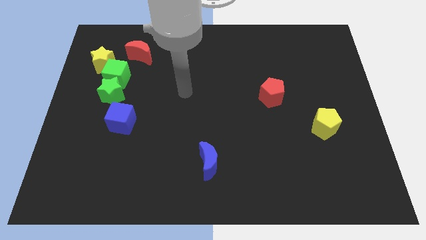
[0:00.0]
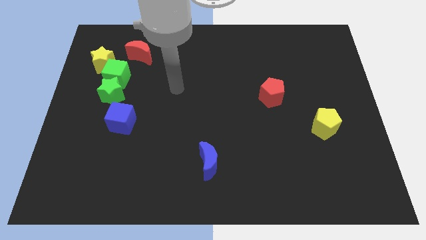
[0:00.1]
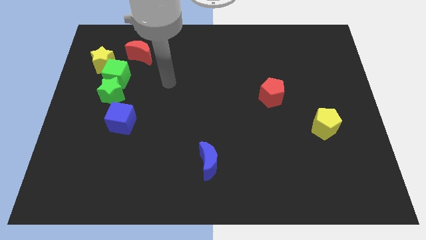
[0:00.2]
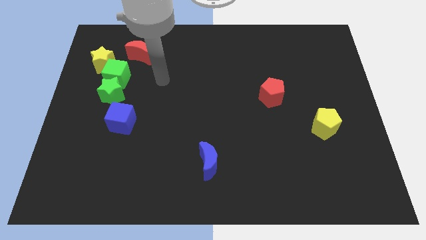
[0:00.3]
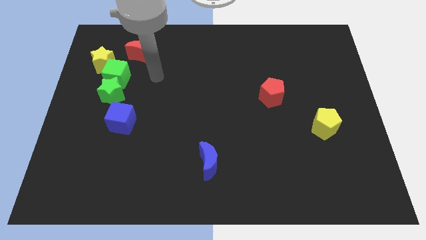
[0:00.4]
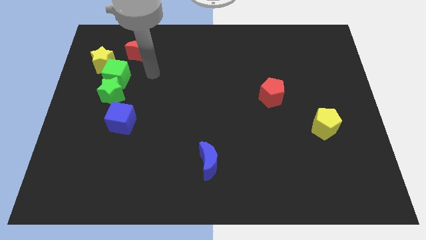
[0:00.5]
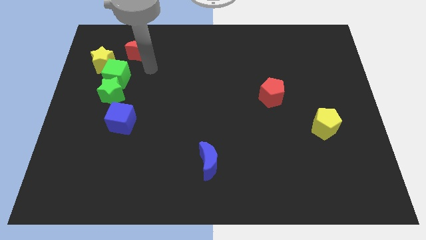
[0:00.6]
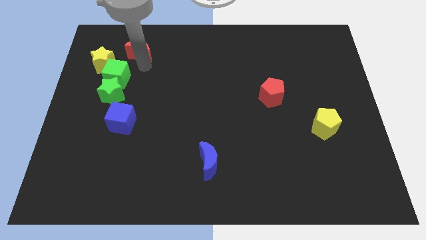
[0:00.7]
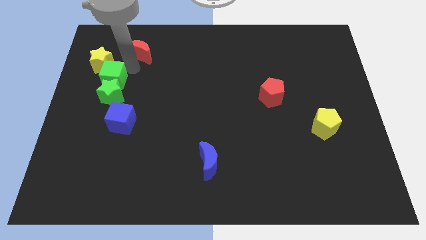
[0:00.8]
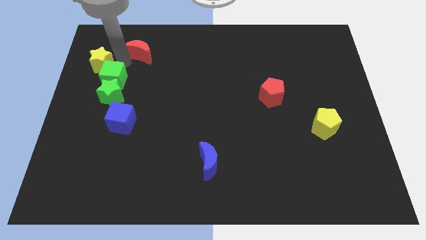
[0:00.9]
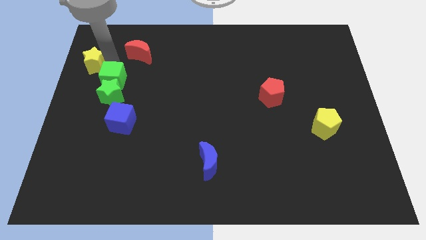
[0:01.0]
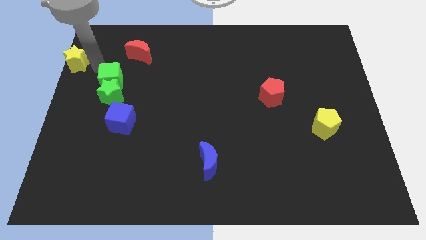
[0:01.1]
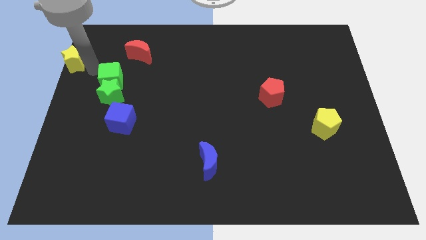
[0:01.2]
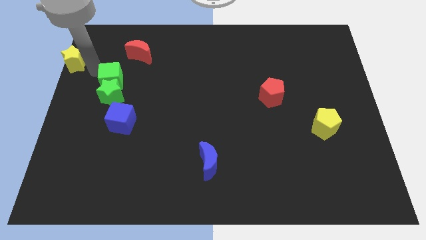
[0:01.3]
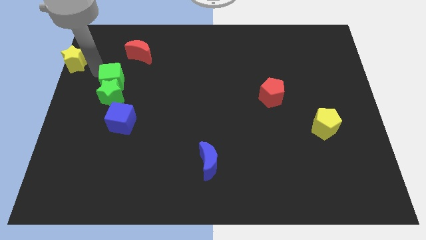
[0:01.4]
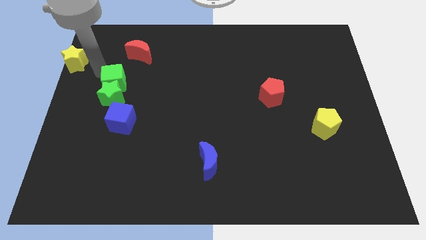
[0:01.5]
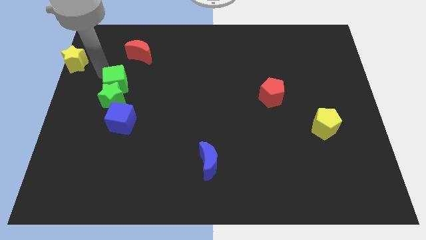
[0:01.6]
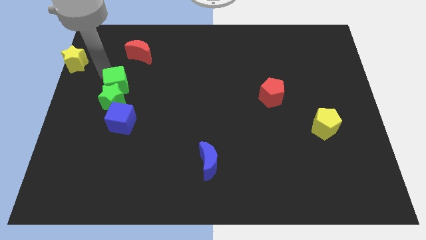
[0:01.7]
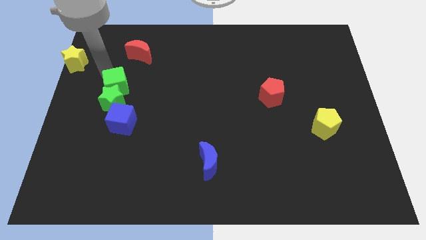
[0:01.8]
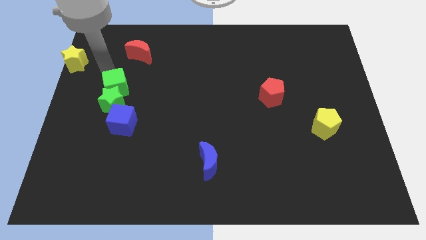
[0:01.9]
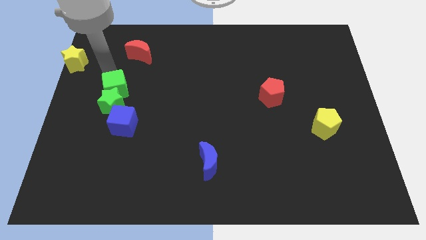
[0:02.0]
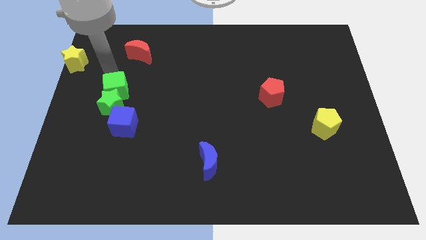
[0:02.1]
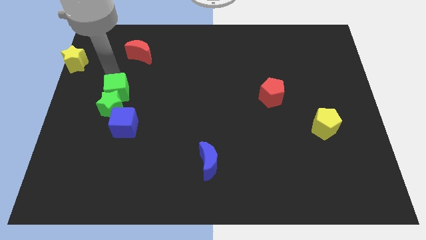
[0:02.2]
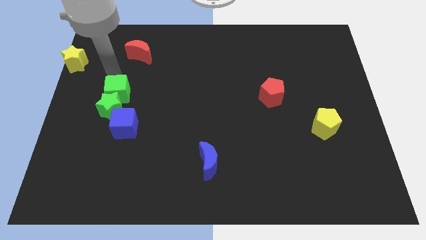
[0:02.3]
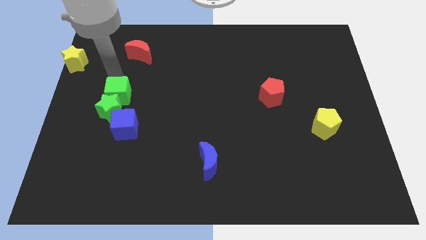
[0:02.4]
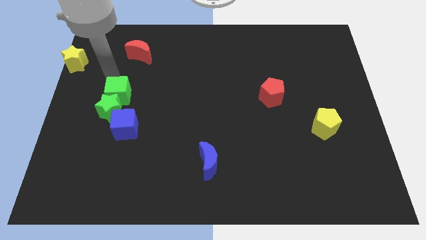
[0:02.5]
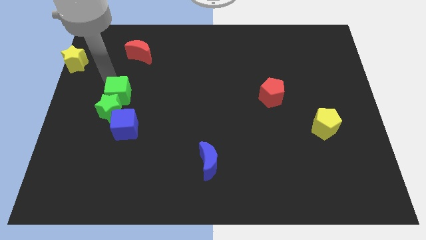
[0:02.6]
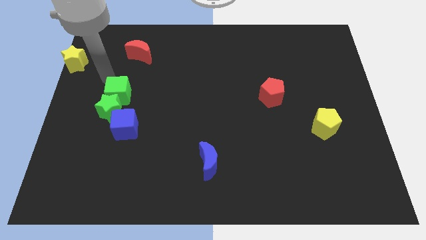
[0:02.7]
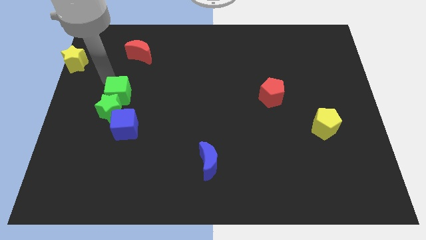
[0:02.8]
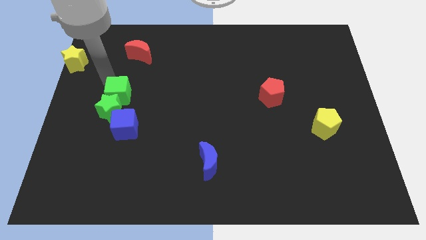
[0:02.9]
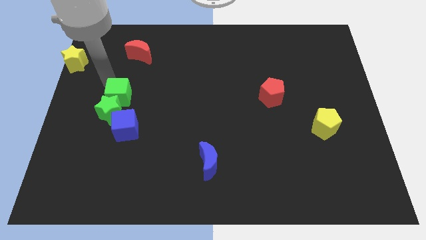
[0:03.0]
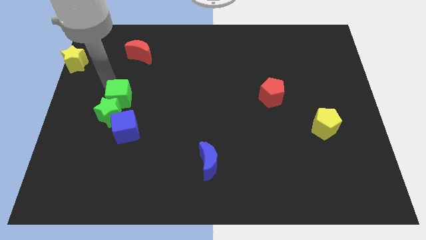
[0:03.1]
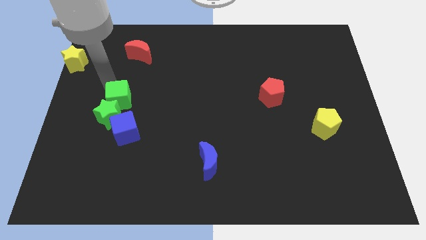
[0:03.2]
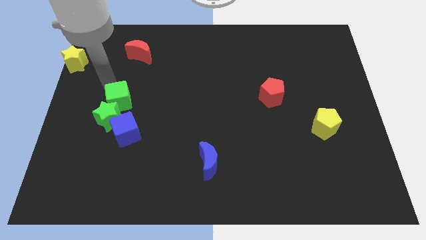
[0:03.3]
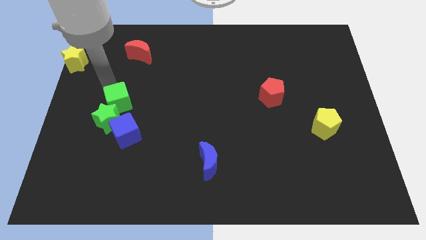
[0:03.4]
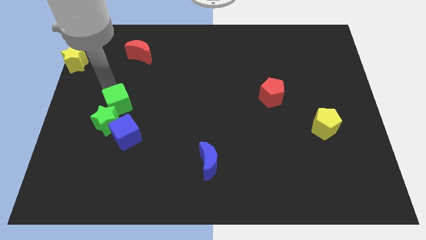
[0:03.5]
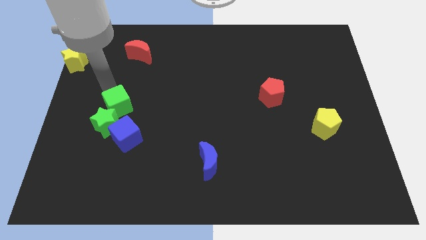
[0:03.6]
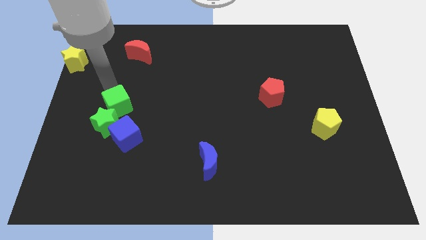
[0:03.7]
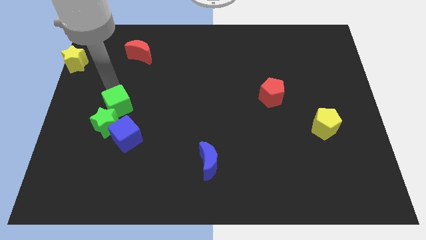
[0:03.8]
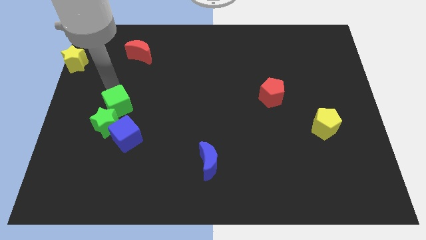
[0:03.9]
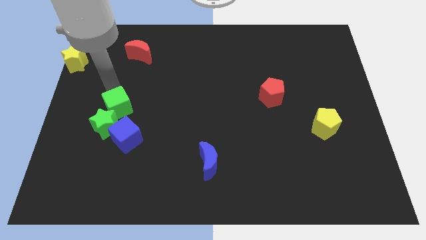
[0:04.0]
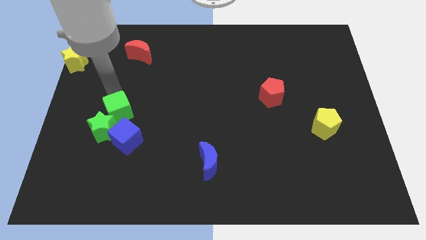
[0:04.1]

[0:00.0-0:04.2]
separate the green cube from the green star, yellow star, and red moon

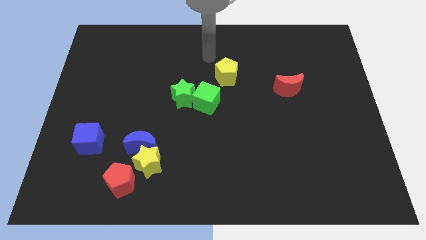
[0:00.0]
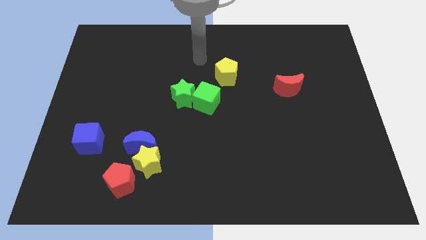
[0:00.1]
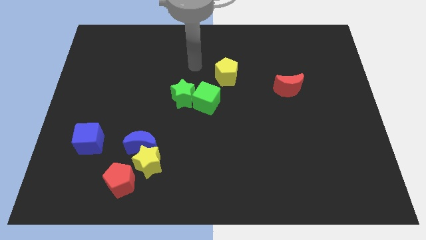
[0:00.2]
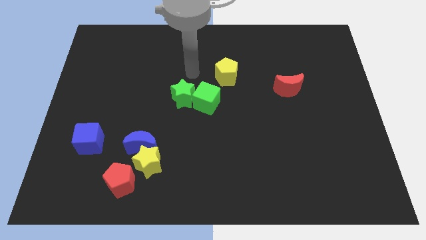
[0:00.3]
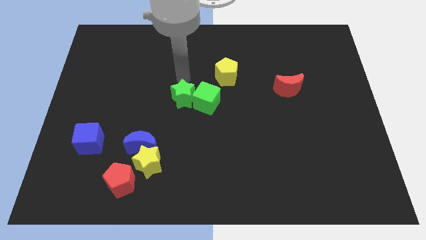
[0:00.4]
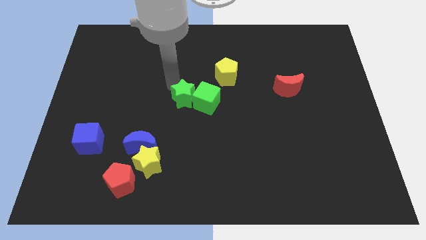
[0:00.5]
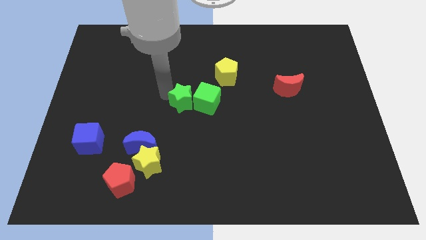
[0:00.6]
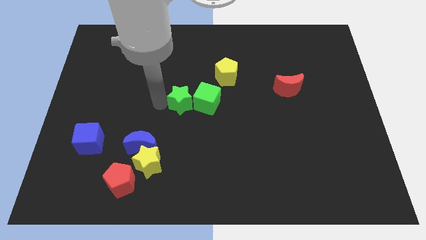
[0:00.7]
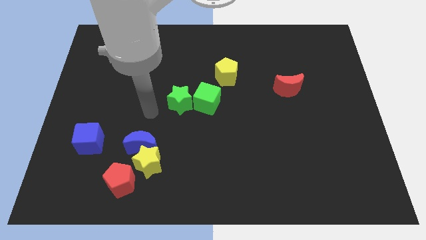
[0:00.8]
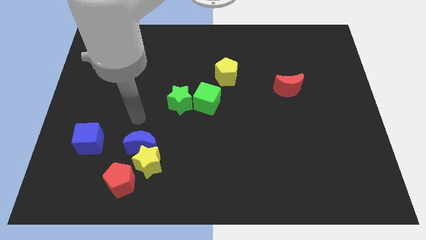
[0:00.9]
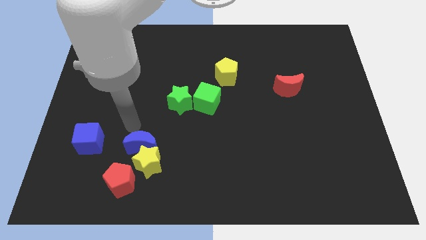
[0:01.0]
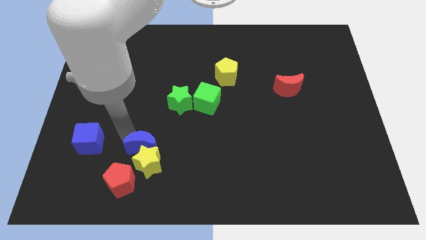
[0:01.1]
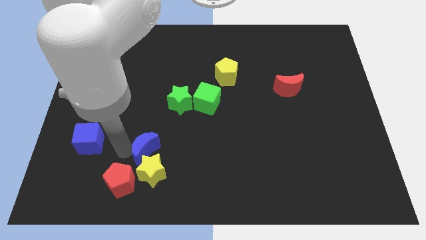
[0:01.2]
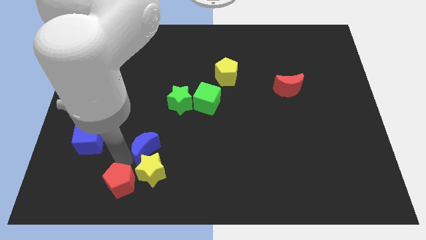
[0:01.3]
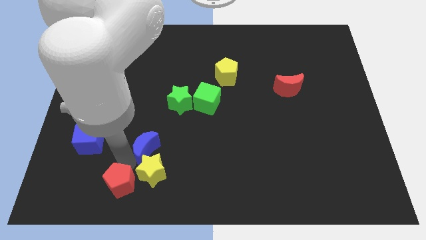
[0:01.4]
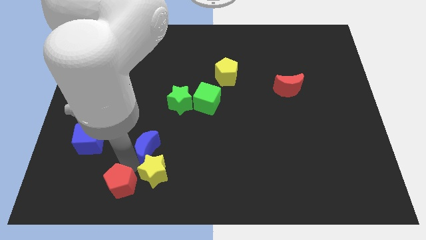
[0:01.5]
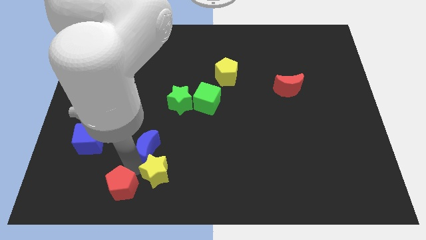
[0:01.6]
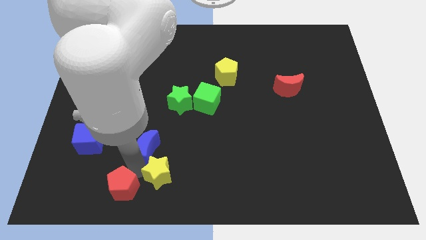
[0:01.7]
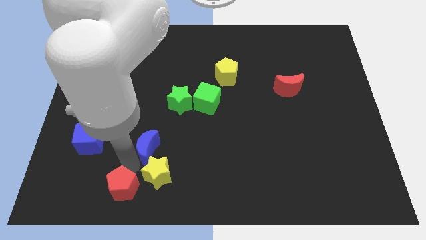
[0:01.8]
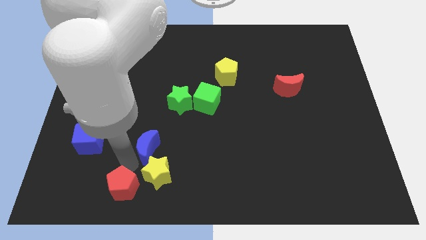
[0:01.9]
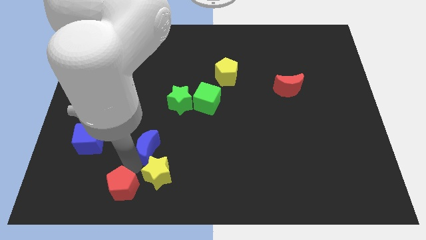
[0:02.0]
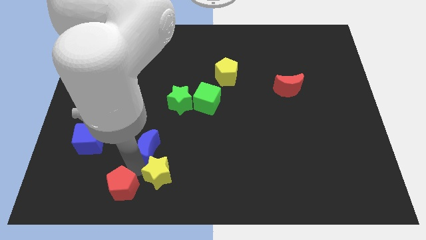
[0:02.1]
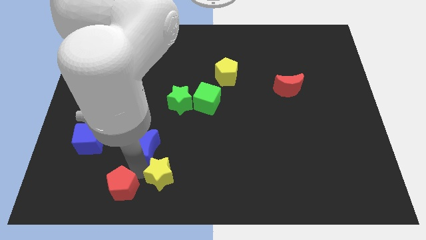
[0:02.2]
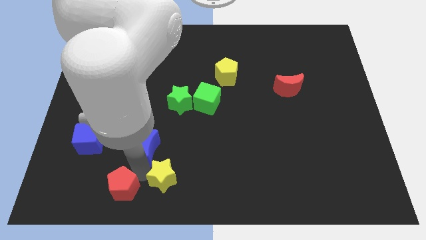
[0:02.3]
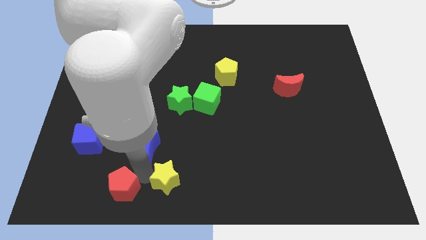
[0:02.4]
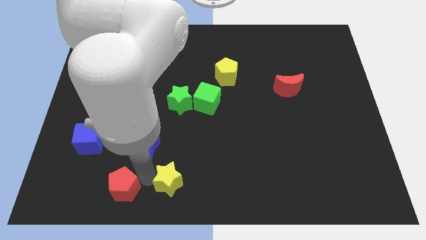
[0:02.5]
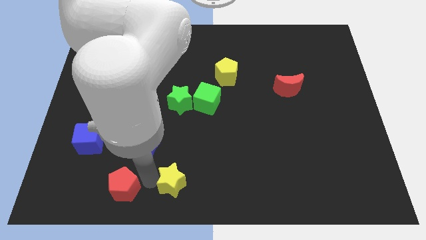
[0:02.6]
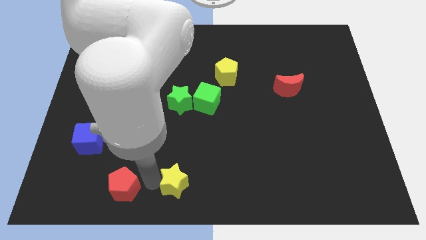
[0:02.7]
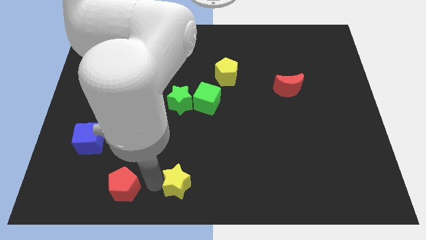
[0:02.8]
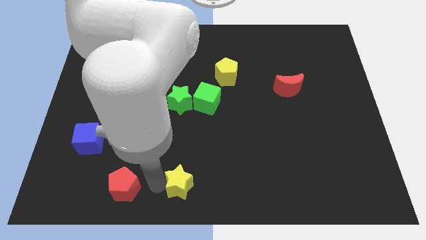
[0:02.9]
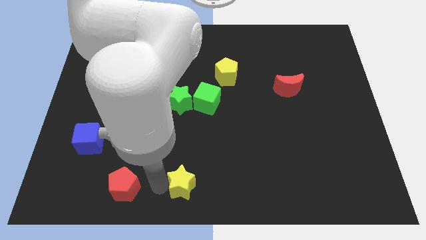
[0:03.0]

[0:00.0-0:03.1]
move the yellow star away from the blue moon and red pentagon

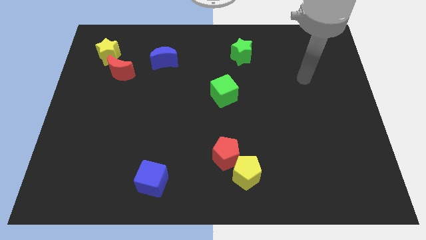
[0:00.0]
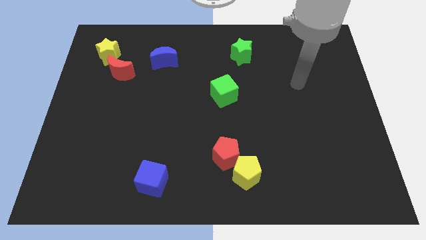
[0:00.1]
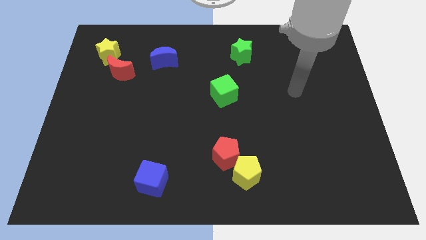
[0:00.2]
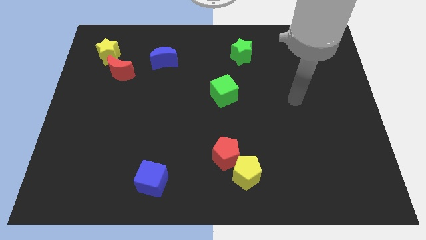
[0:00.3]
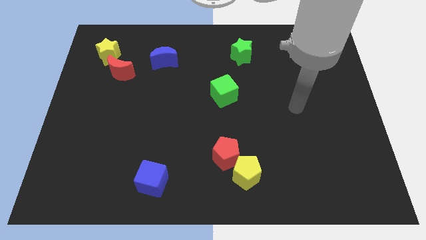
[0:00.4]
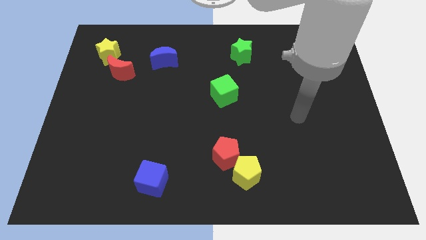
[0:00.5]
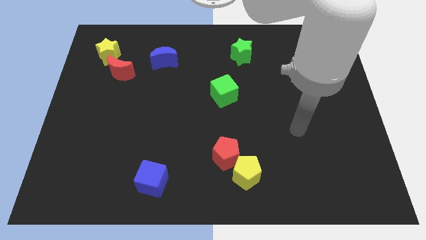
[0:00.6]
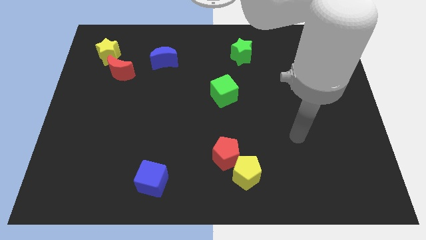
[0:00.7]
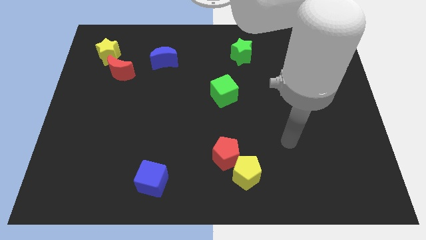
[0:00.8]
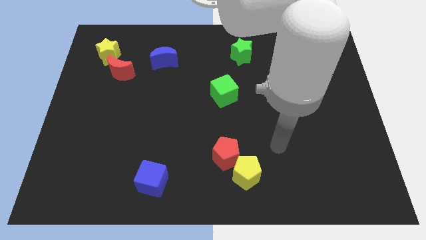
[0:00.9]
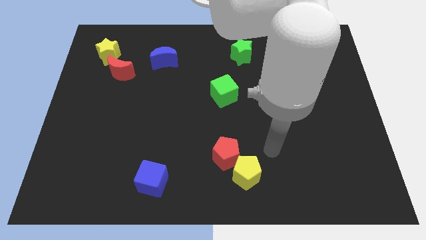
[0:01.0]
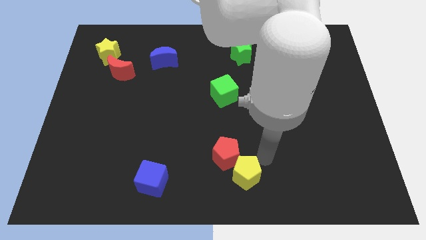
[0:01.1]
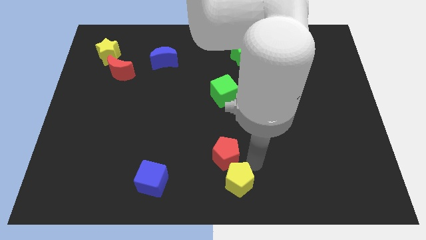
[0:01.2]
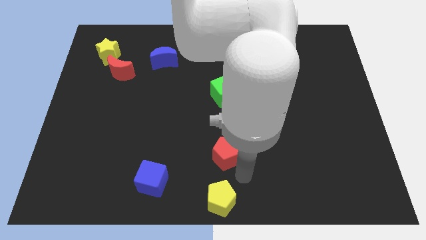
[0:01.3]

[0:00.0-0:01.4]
separate the red pentagon from the yellow pentagon

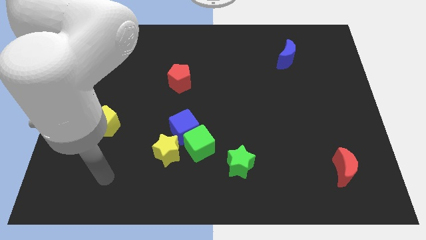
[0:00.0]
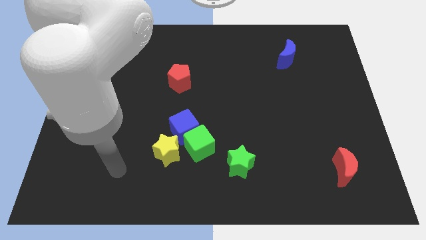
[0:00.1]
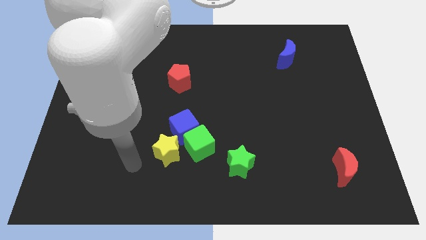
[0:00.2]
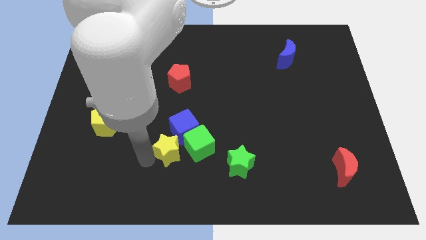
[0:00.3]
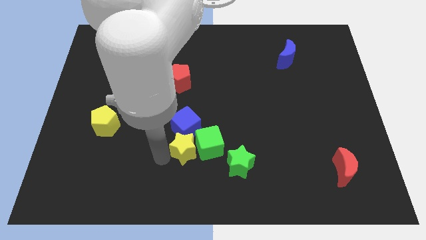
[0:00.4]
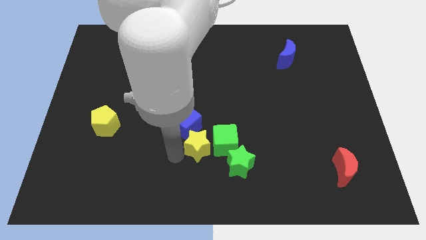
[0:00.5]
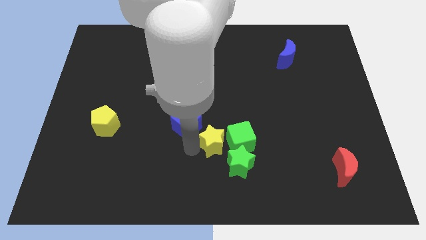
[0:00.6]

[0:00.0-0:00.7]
pull the blue cube apart from the green cube and yellow star
